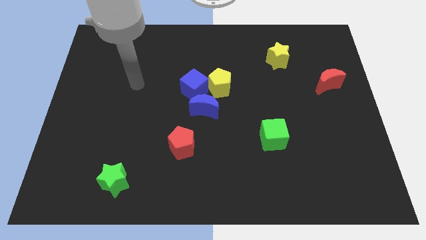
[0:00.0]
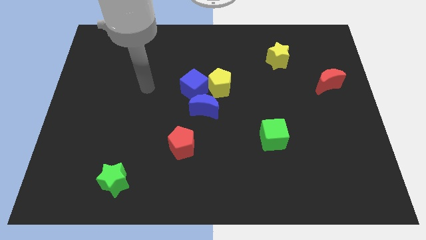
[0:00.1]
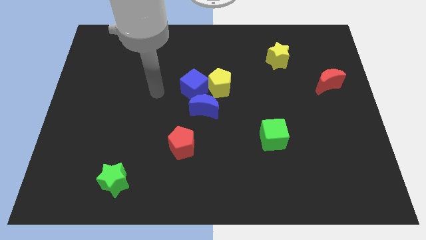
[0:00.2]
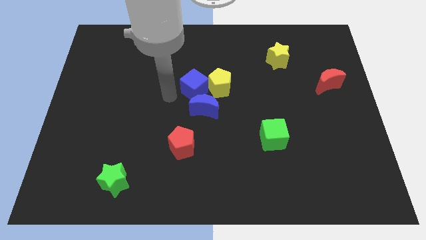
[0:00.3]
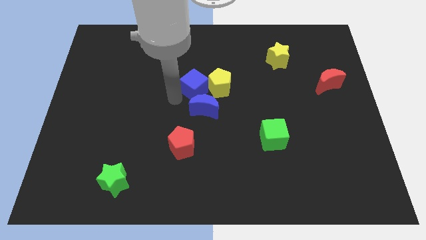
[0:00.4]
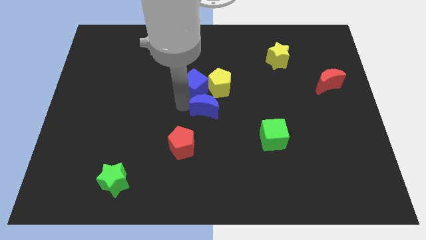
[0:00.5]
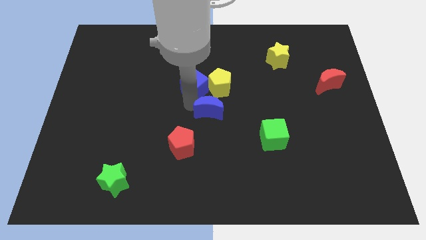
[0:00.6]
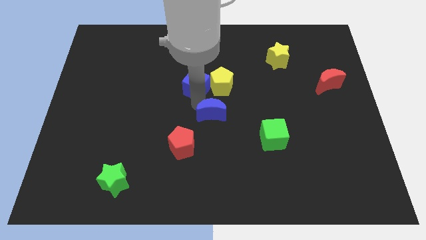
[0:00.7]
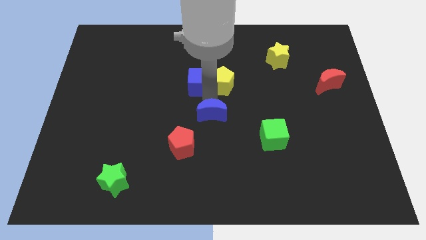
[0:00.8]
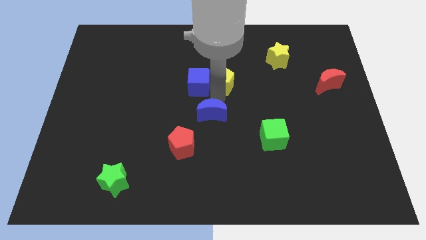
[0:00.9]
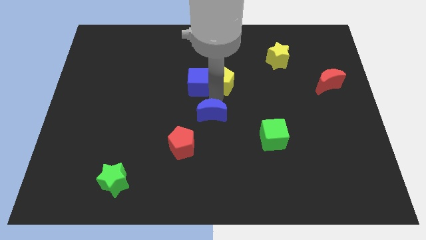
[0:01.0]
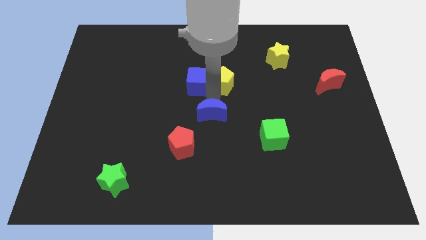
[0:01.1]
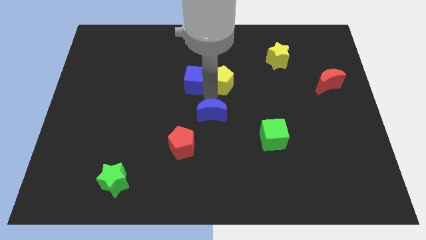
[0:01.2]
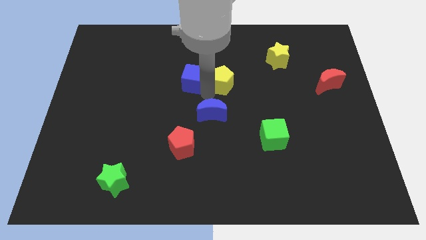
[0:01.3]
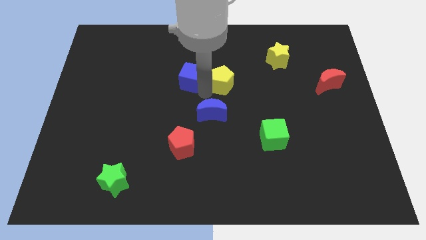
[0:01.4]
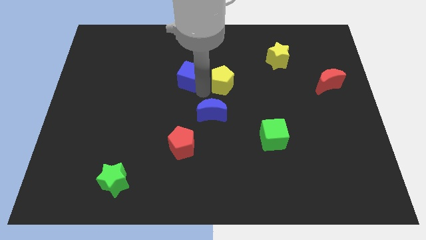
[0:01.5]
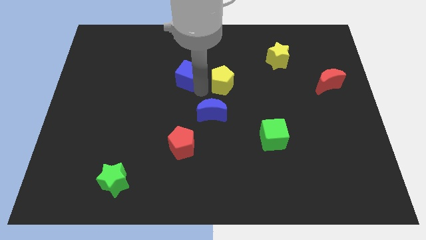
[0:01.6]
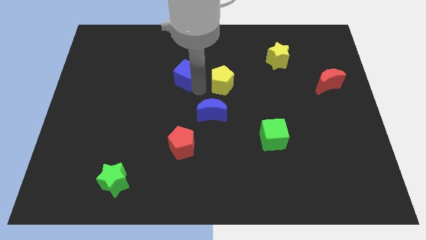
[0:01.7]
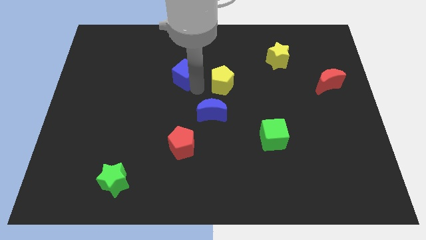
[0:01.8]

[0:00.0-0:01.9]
separate the blue cube from the yellow pentagon and blue moon

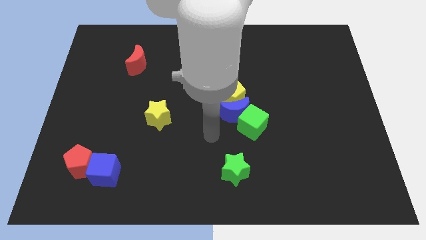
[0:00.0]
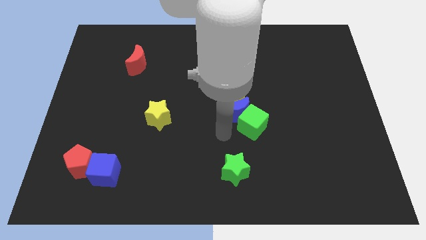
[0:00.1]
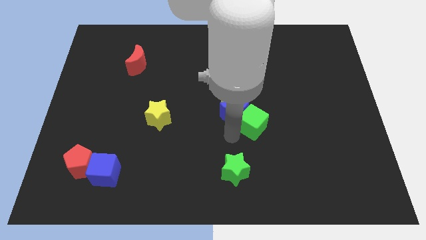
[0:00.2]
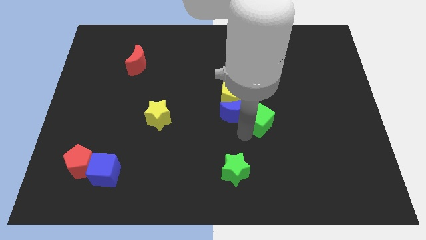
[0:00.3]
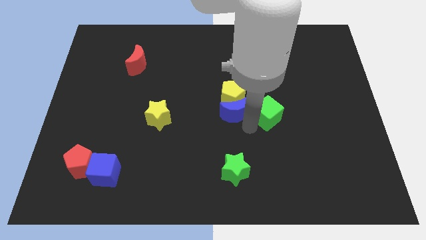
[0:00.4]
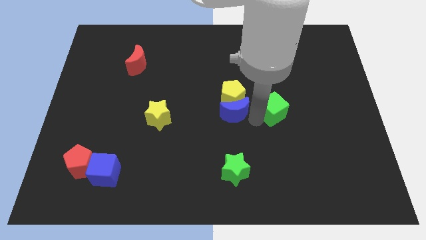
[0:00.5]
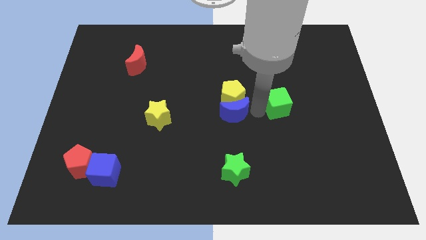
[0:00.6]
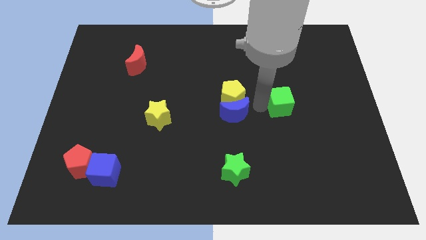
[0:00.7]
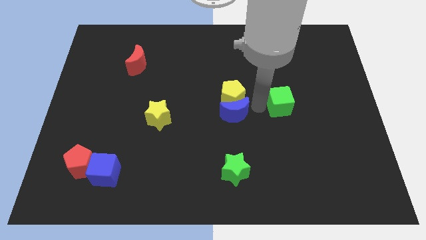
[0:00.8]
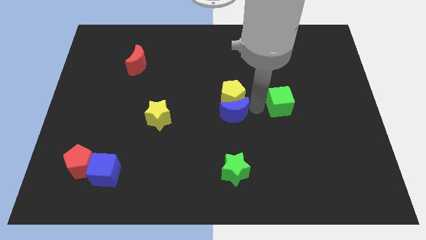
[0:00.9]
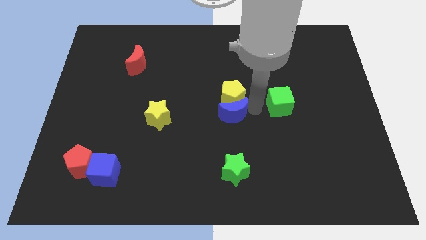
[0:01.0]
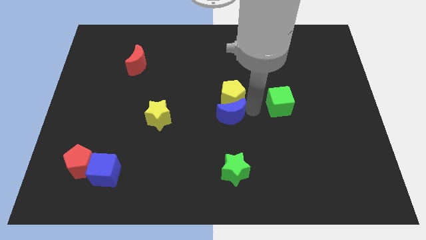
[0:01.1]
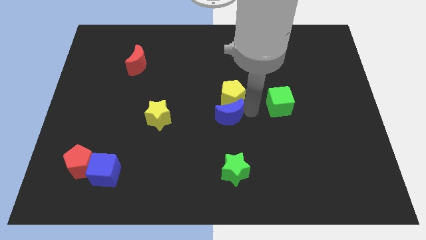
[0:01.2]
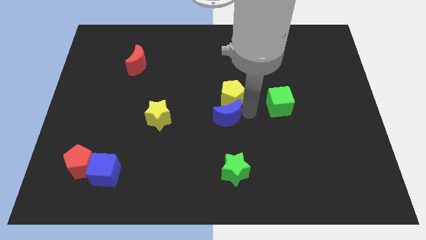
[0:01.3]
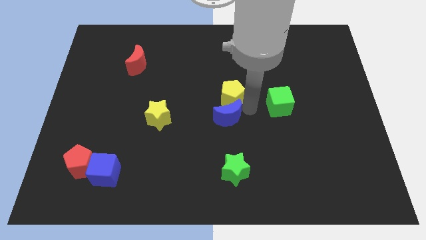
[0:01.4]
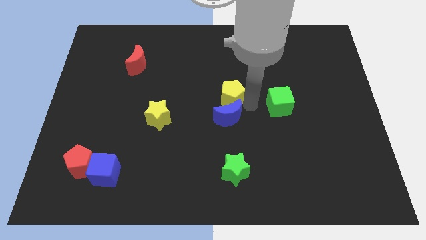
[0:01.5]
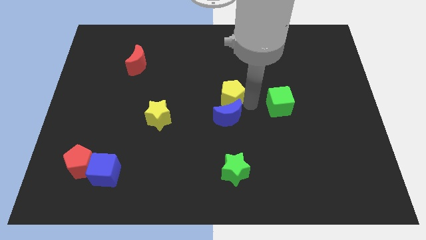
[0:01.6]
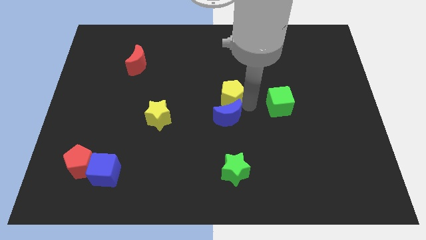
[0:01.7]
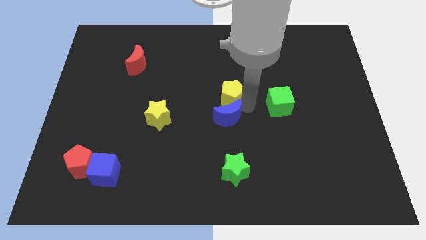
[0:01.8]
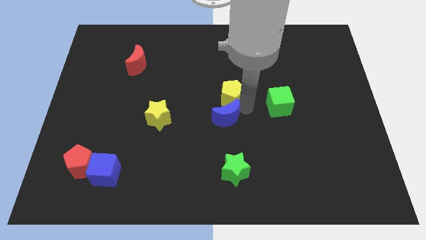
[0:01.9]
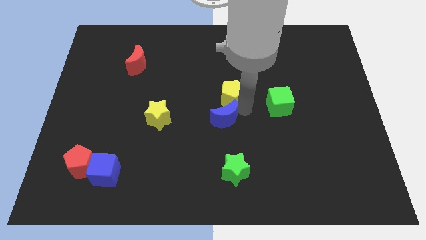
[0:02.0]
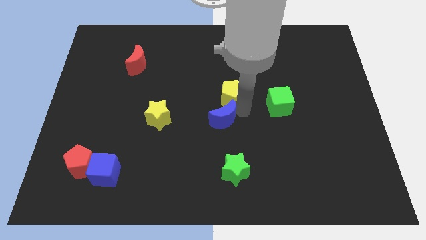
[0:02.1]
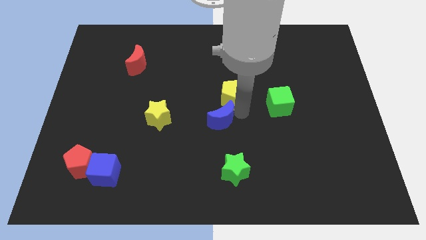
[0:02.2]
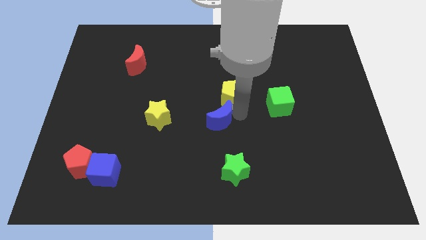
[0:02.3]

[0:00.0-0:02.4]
pull the blue moon apart from the yellow pentagon and green cube

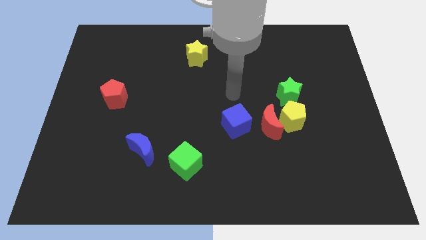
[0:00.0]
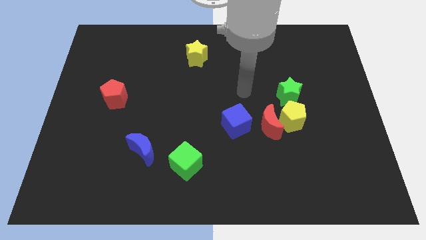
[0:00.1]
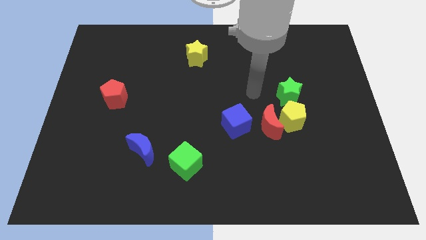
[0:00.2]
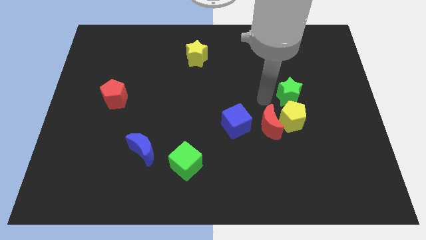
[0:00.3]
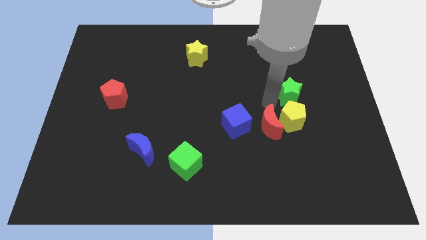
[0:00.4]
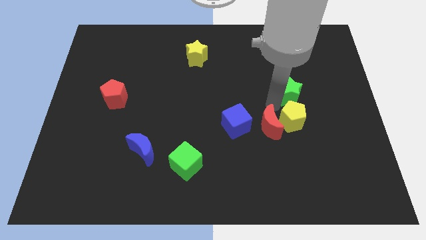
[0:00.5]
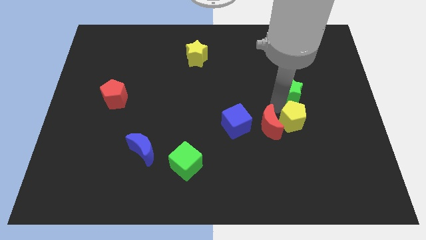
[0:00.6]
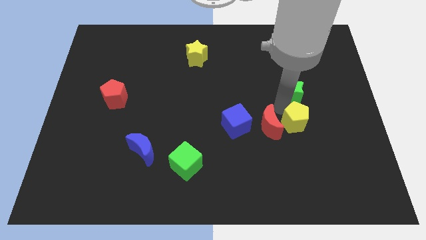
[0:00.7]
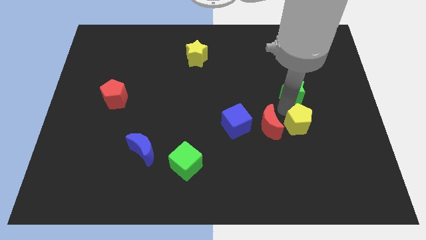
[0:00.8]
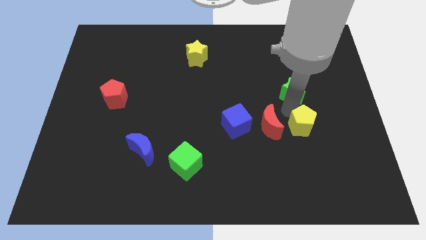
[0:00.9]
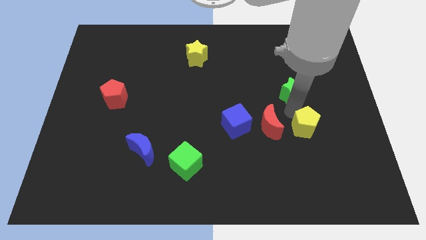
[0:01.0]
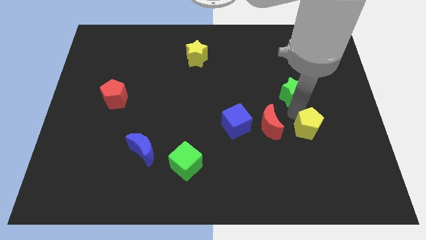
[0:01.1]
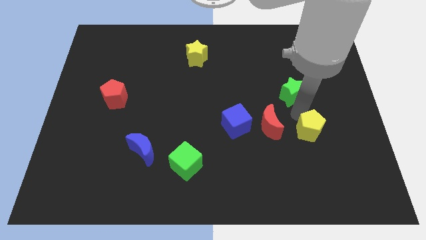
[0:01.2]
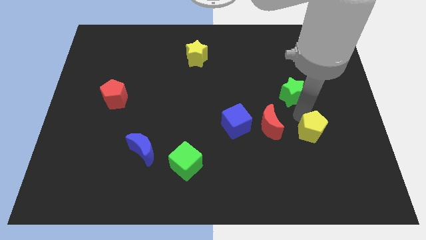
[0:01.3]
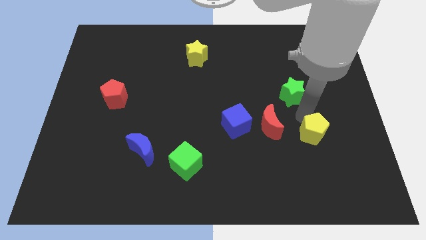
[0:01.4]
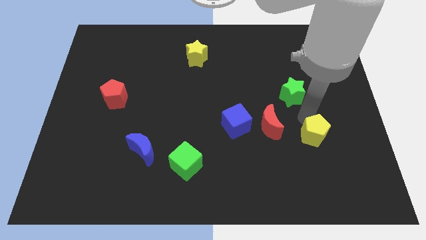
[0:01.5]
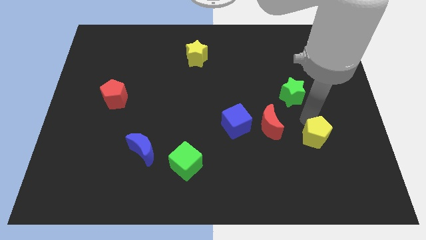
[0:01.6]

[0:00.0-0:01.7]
separate the yellow pentagon from the red moon and green star

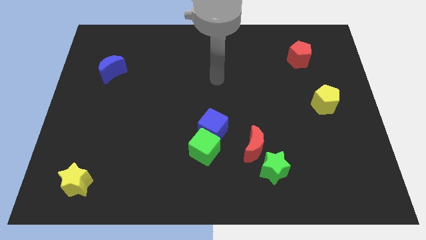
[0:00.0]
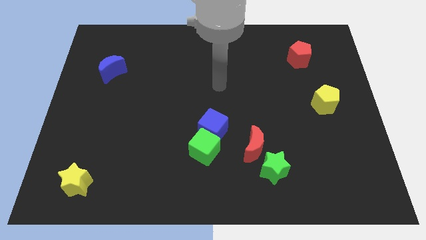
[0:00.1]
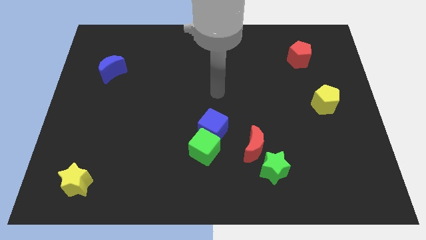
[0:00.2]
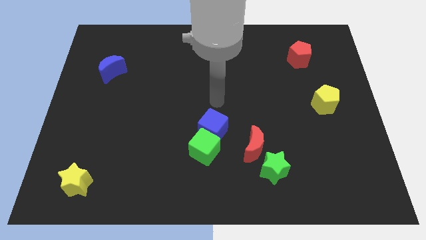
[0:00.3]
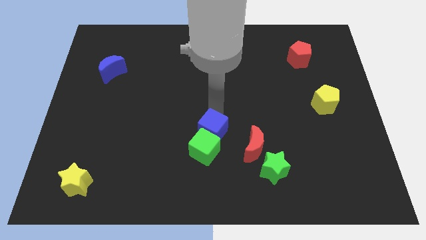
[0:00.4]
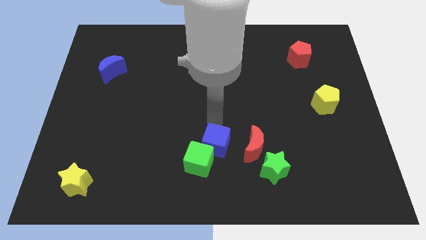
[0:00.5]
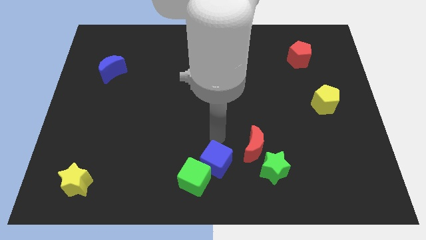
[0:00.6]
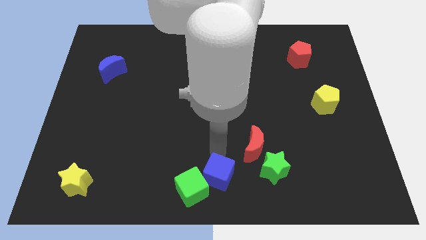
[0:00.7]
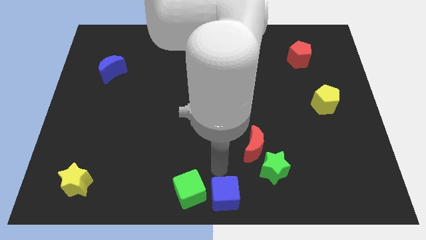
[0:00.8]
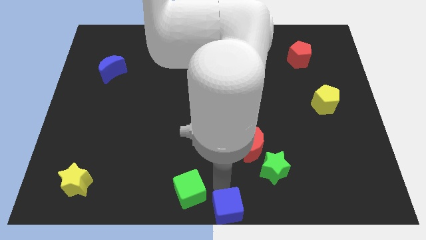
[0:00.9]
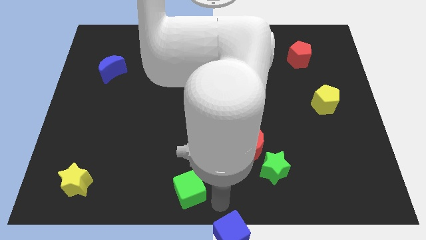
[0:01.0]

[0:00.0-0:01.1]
move the green cube away from the blue cube

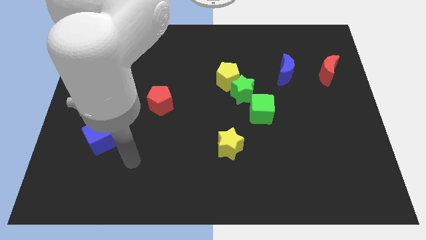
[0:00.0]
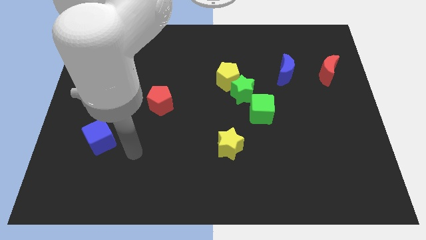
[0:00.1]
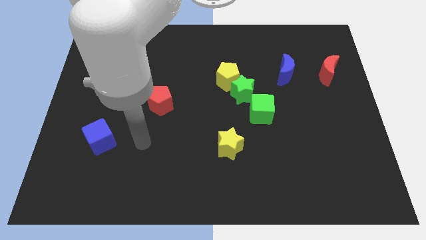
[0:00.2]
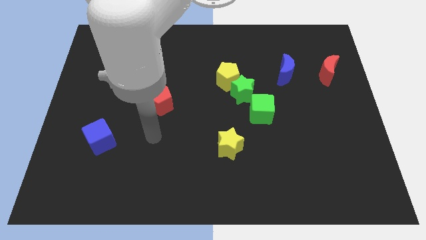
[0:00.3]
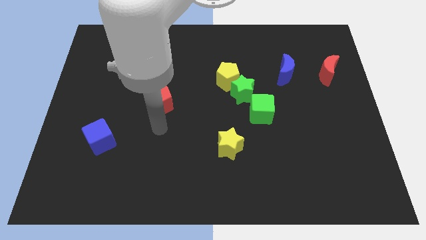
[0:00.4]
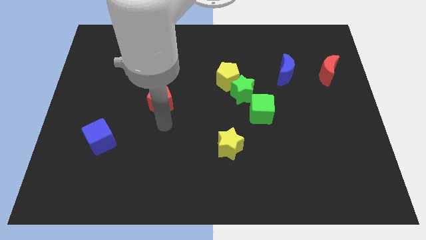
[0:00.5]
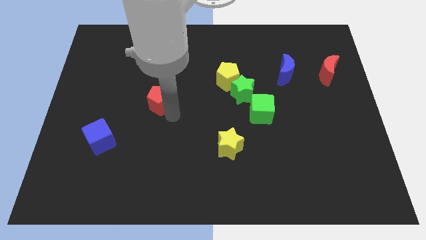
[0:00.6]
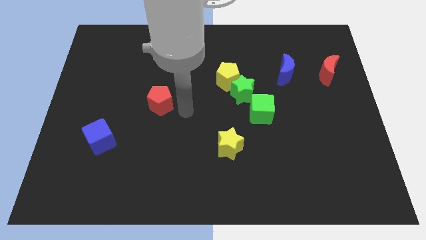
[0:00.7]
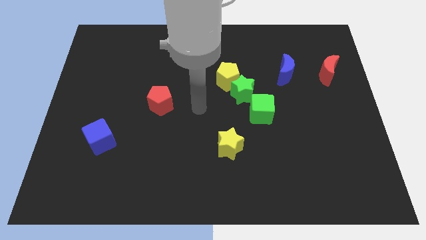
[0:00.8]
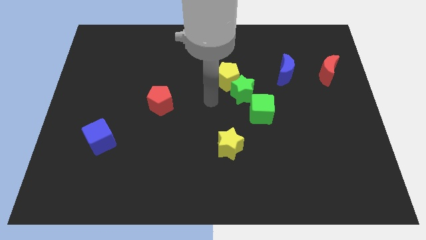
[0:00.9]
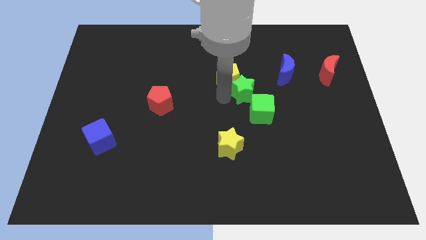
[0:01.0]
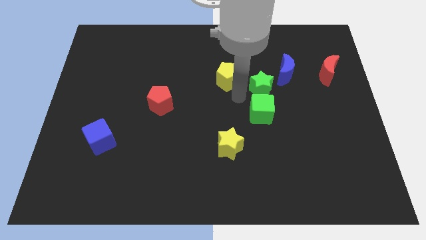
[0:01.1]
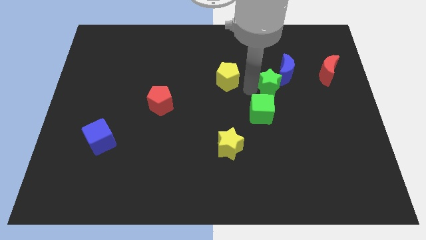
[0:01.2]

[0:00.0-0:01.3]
pull the yellow pentagon apart from the green star

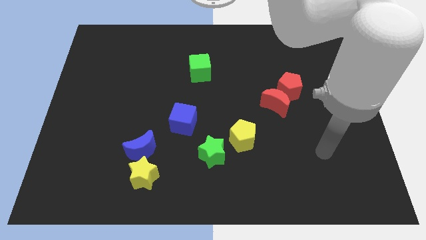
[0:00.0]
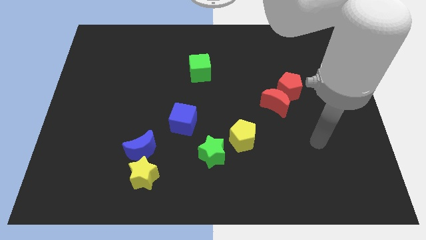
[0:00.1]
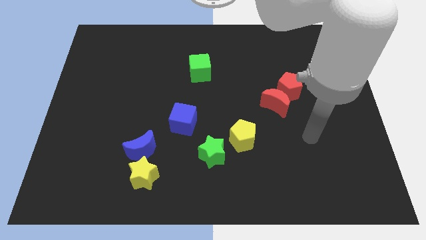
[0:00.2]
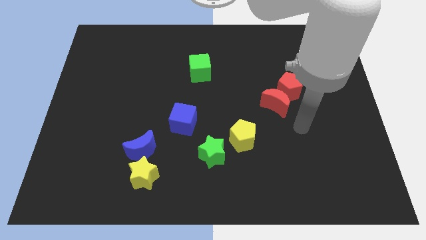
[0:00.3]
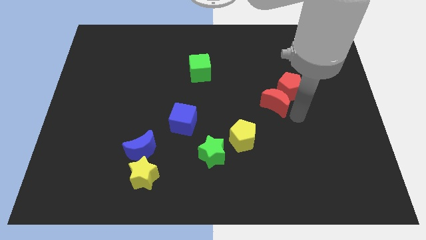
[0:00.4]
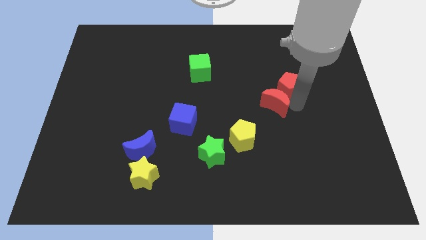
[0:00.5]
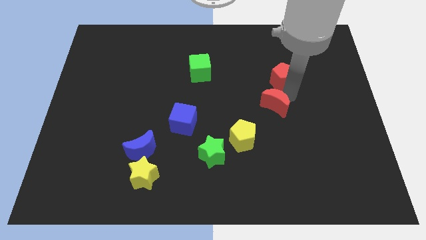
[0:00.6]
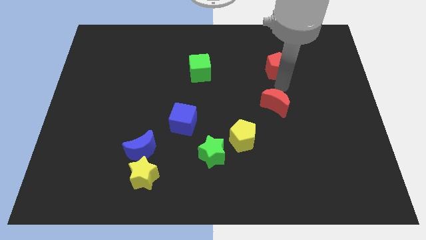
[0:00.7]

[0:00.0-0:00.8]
pull the red moon apart from the red pentagon

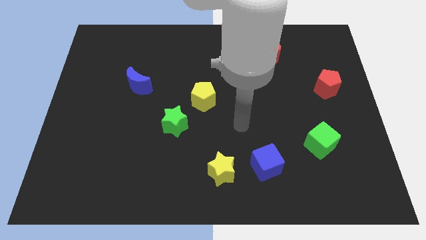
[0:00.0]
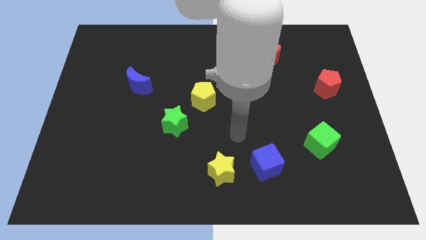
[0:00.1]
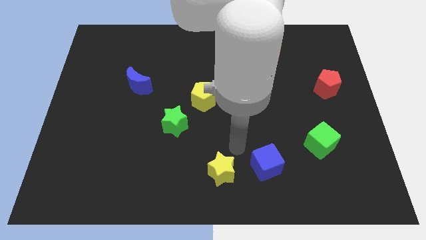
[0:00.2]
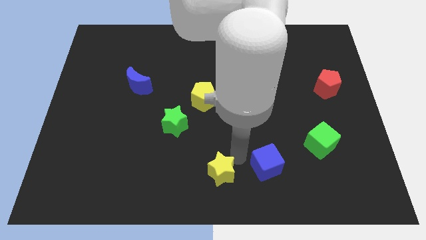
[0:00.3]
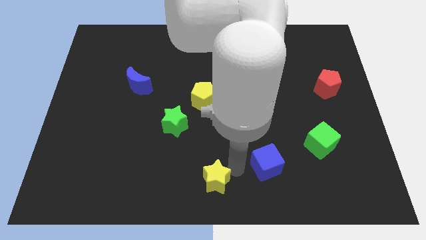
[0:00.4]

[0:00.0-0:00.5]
pull the blue cube apart from the yellow star
